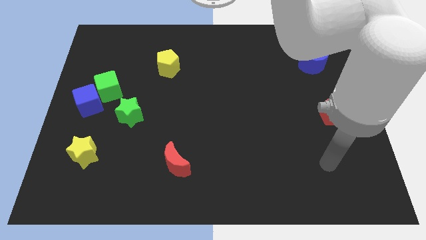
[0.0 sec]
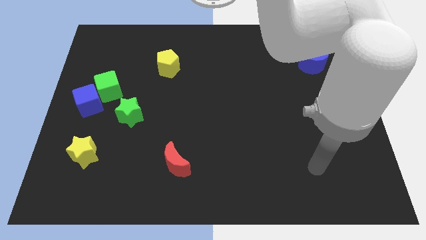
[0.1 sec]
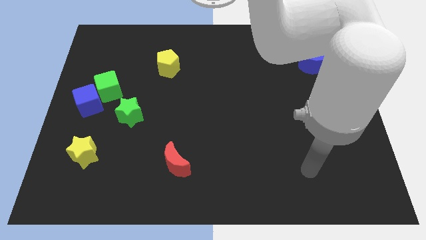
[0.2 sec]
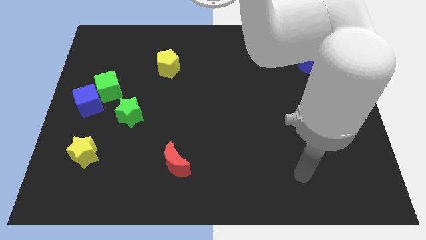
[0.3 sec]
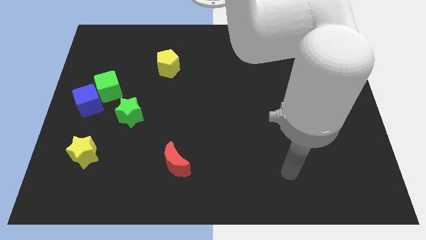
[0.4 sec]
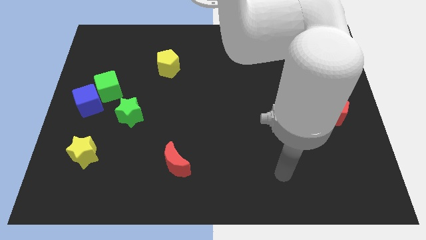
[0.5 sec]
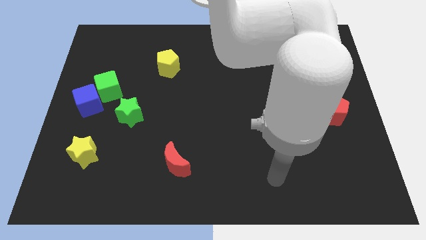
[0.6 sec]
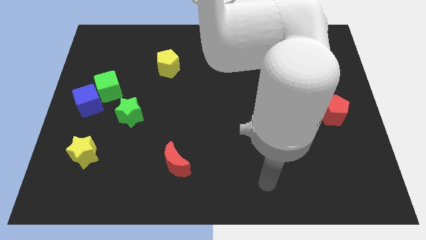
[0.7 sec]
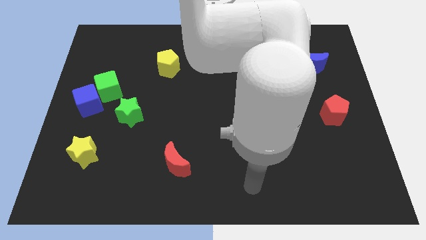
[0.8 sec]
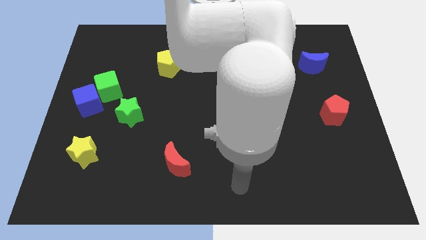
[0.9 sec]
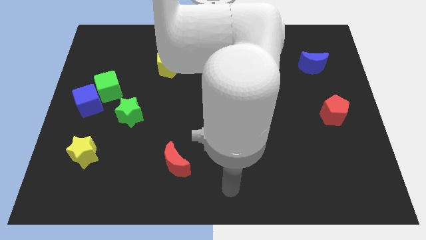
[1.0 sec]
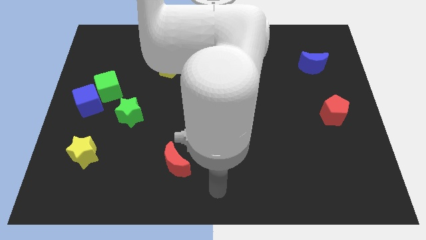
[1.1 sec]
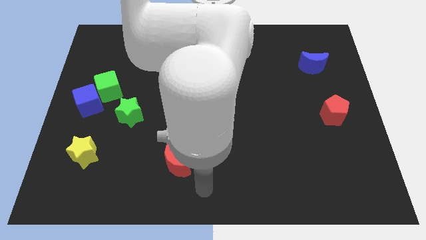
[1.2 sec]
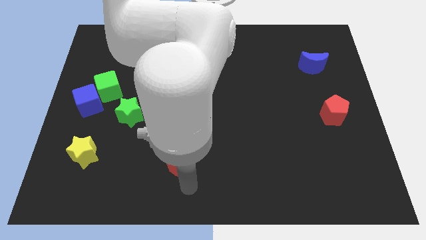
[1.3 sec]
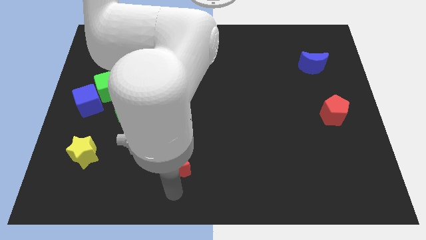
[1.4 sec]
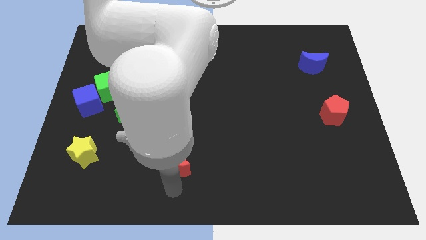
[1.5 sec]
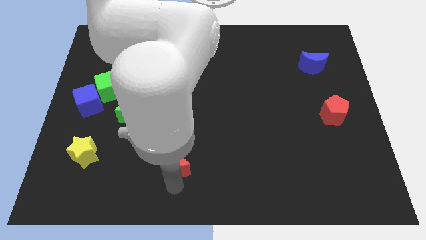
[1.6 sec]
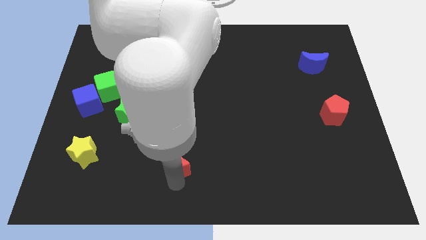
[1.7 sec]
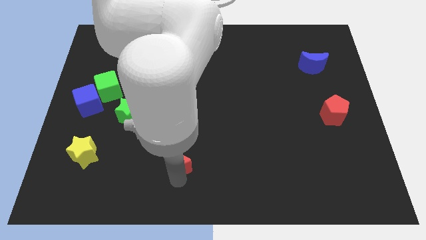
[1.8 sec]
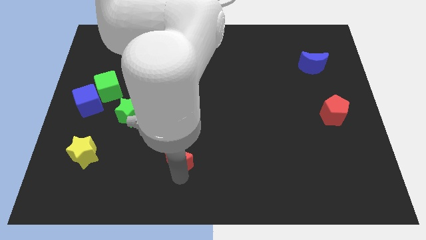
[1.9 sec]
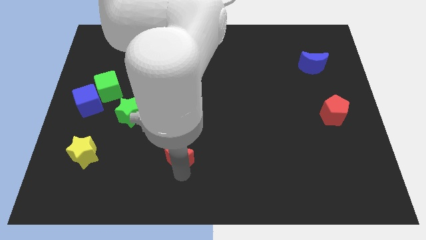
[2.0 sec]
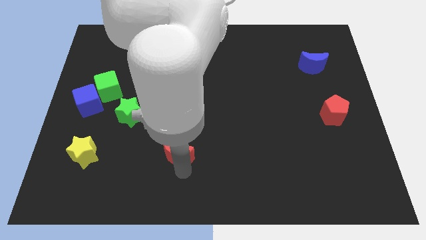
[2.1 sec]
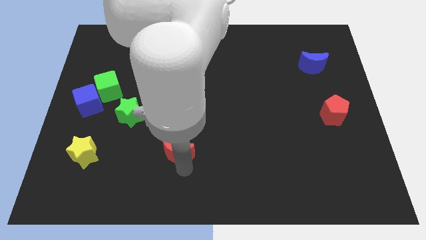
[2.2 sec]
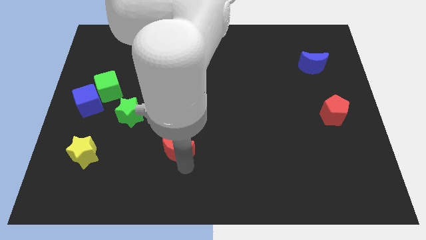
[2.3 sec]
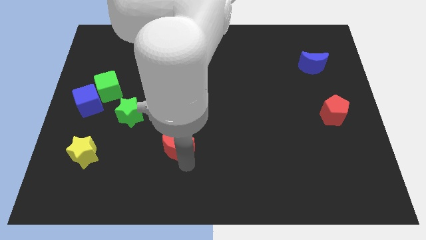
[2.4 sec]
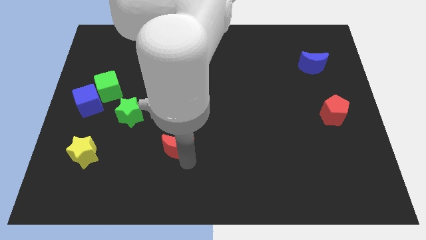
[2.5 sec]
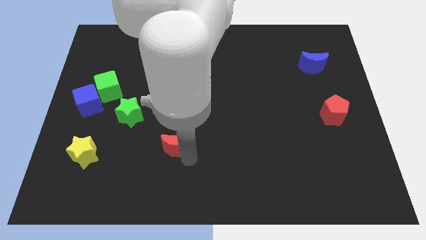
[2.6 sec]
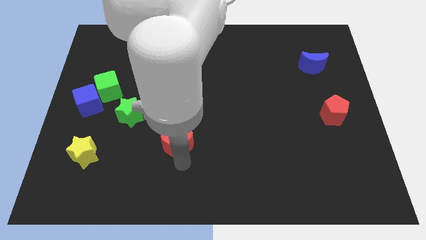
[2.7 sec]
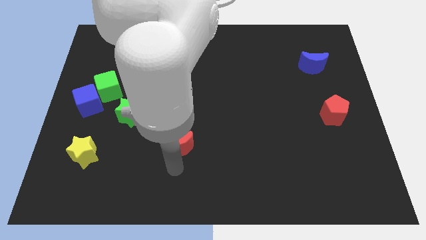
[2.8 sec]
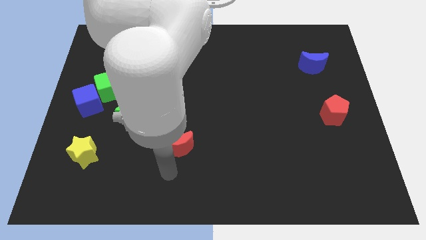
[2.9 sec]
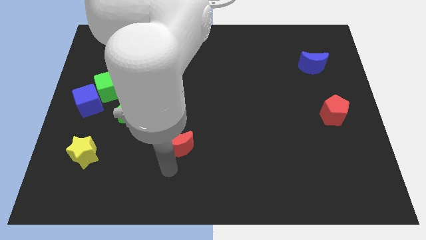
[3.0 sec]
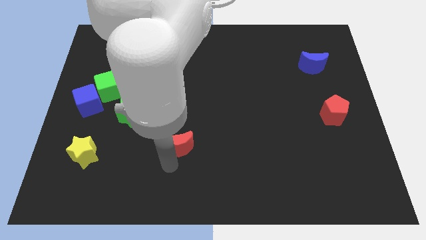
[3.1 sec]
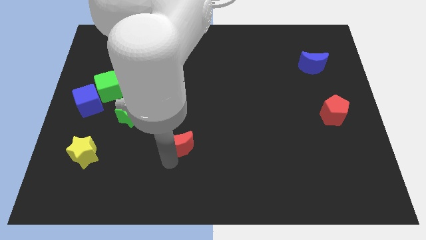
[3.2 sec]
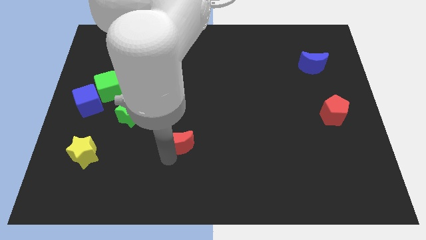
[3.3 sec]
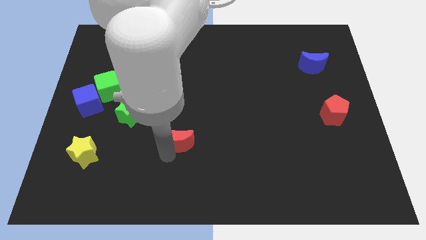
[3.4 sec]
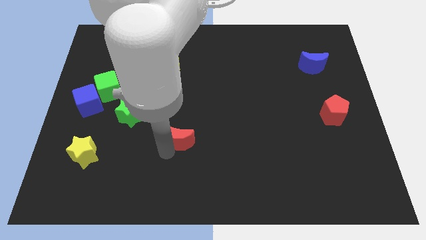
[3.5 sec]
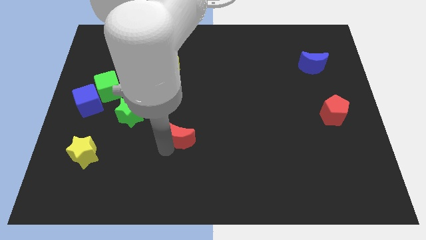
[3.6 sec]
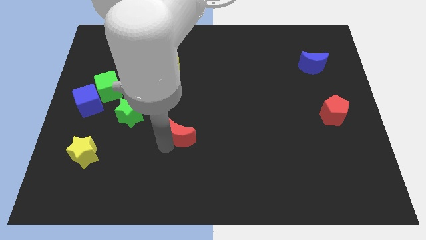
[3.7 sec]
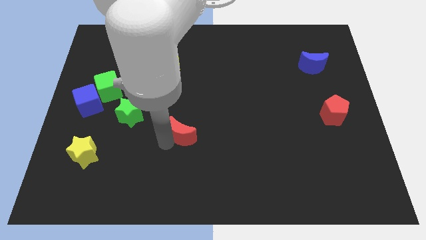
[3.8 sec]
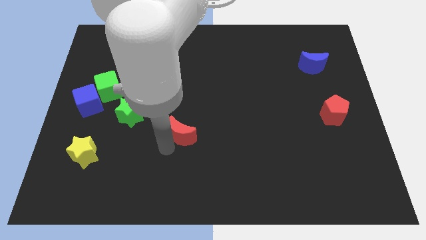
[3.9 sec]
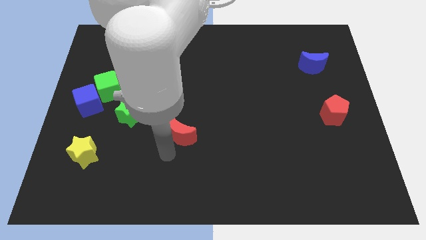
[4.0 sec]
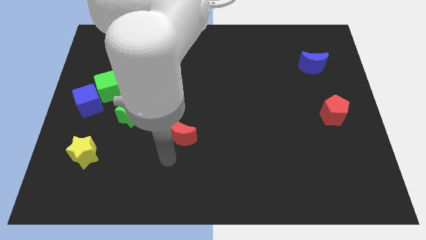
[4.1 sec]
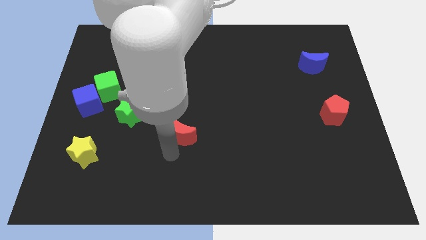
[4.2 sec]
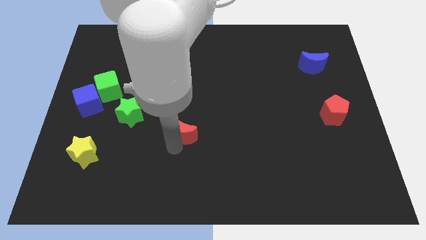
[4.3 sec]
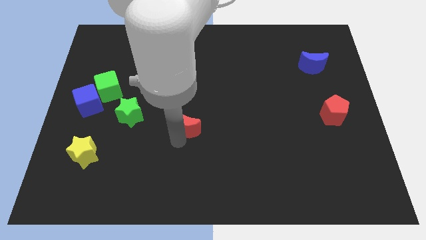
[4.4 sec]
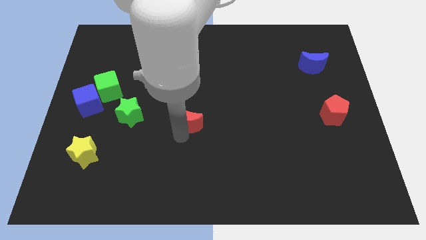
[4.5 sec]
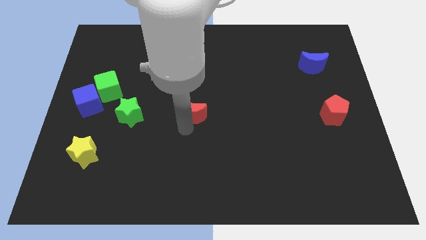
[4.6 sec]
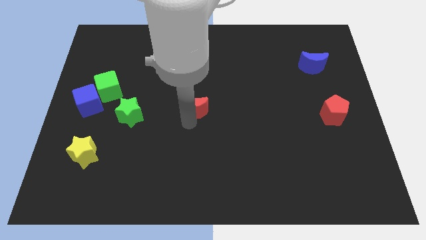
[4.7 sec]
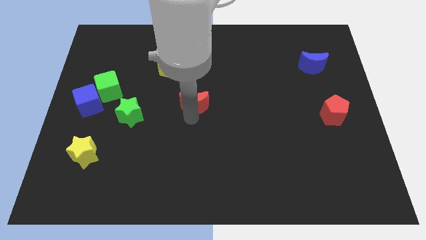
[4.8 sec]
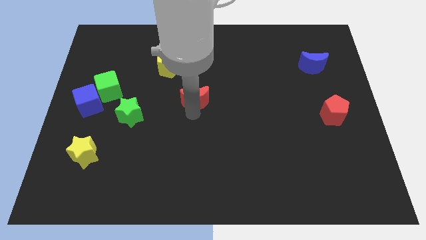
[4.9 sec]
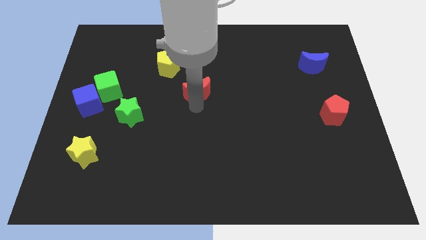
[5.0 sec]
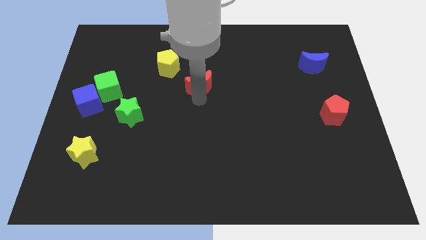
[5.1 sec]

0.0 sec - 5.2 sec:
slide the red moon upwards

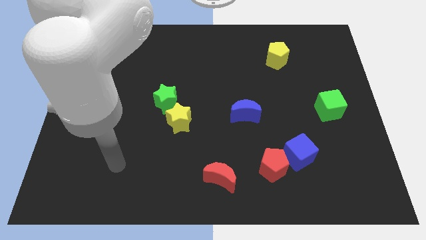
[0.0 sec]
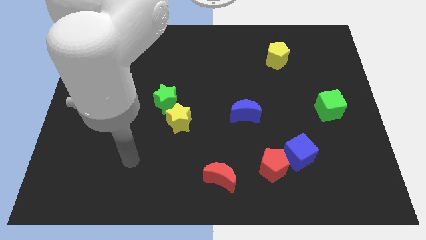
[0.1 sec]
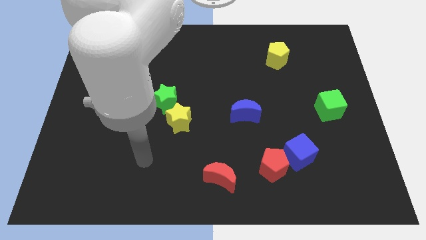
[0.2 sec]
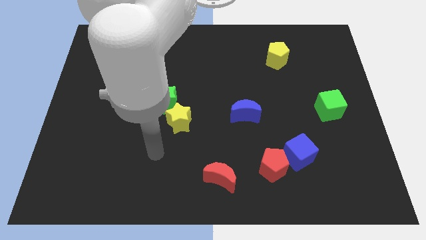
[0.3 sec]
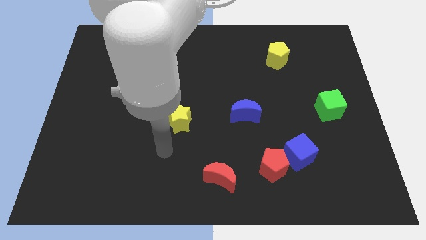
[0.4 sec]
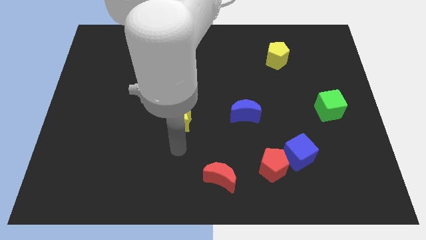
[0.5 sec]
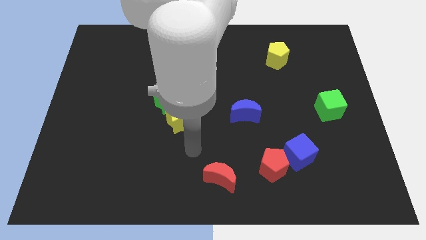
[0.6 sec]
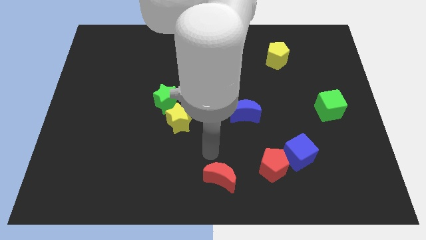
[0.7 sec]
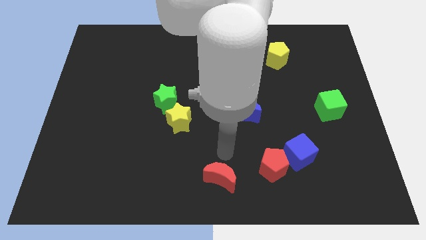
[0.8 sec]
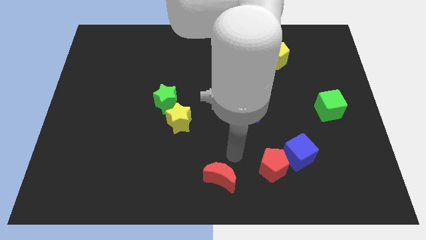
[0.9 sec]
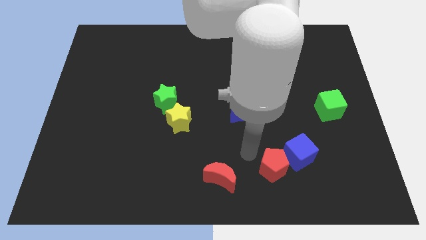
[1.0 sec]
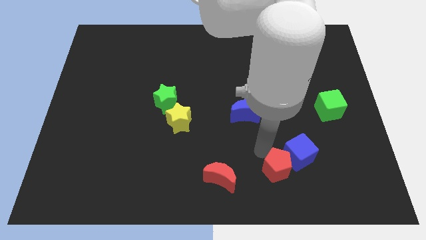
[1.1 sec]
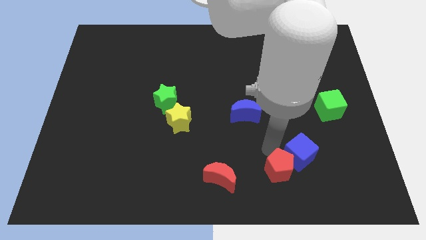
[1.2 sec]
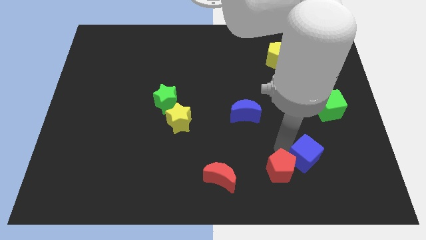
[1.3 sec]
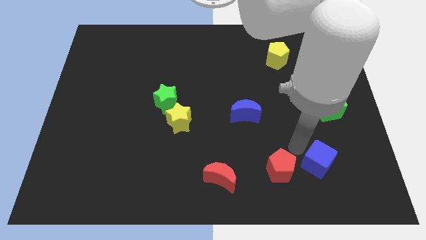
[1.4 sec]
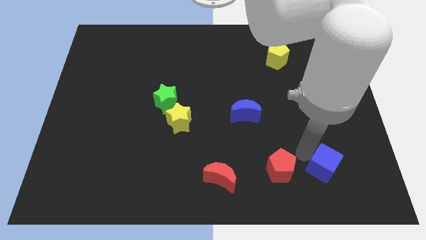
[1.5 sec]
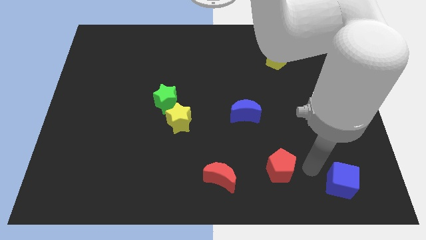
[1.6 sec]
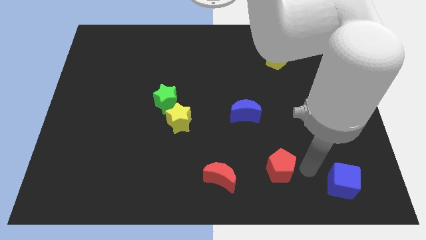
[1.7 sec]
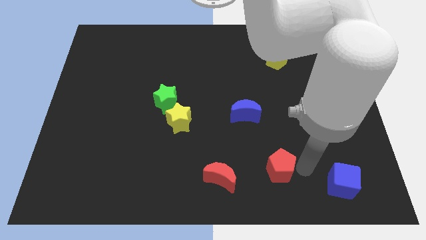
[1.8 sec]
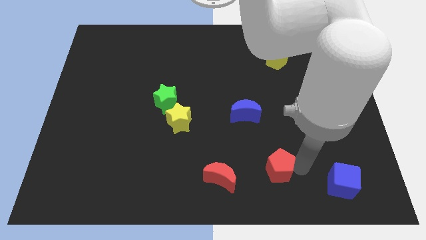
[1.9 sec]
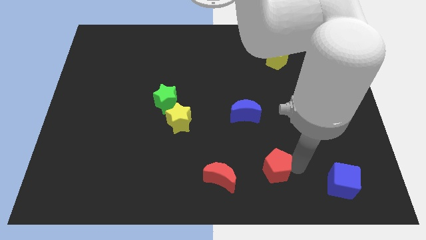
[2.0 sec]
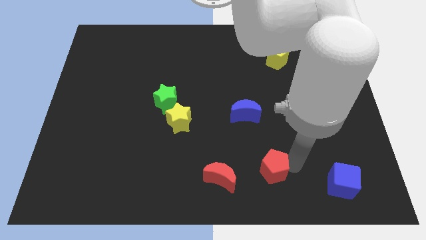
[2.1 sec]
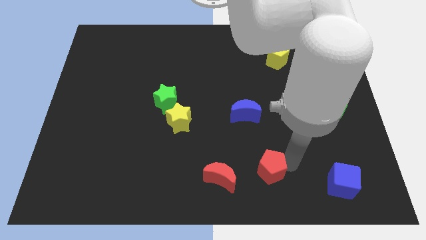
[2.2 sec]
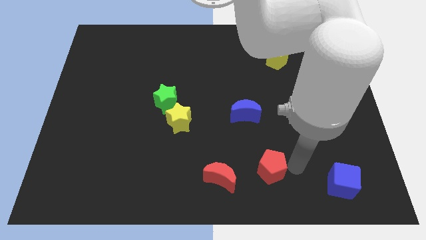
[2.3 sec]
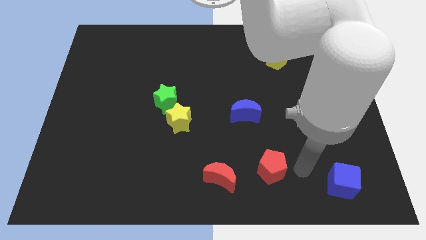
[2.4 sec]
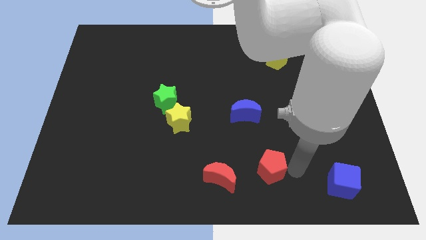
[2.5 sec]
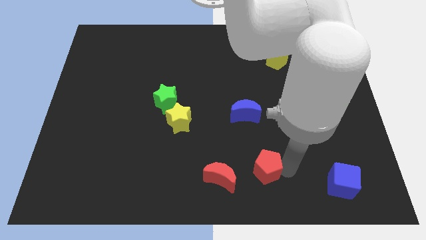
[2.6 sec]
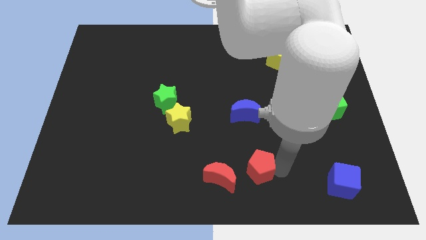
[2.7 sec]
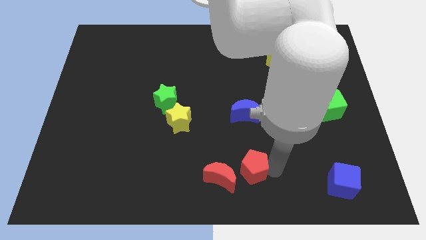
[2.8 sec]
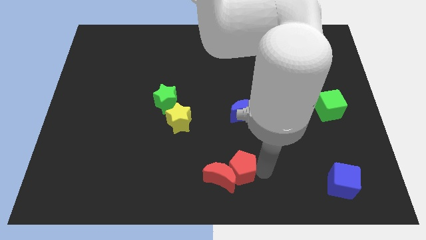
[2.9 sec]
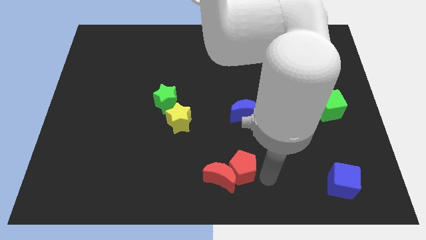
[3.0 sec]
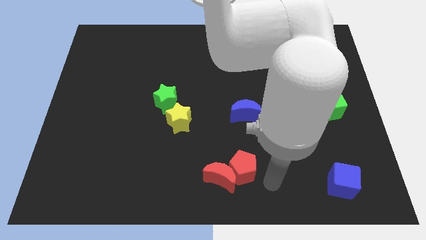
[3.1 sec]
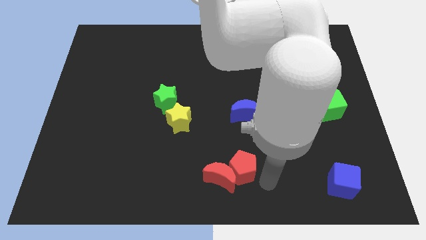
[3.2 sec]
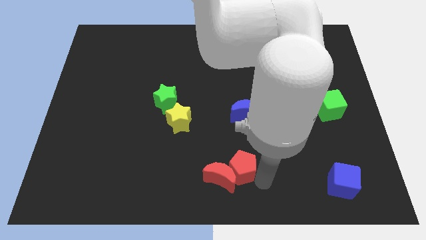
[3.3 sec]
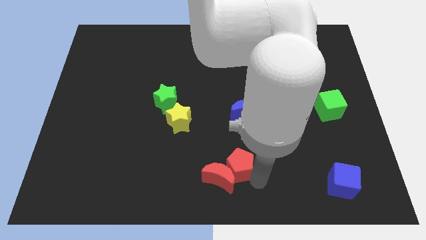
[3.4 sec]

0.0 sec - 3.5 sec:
push the red pentagon a little bit to the left
